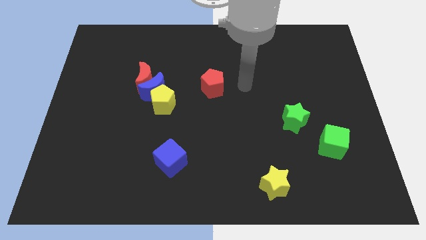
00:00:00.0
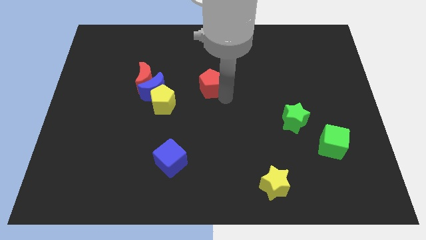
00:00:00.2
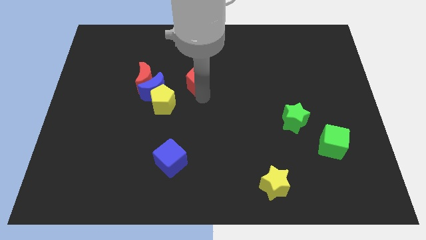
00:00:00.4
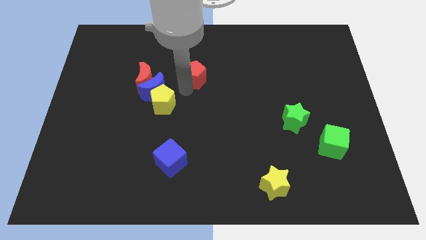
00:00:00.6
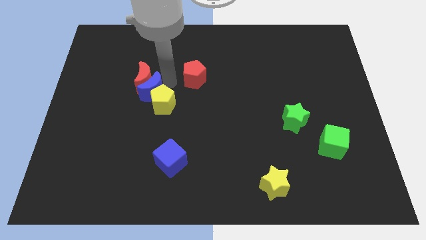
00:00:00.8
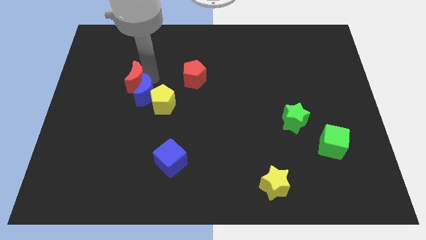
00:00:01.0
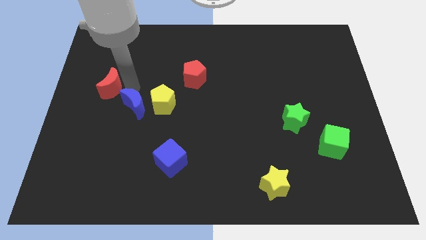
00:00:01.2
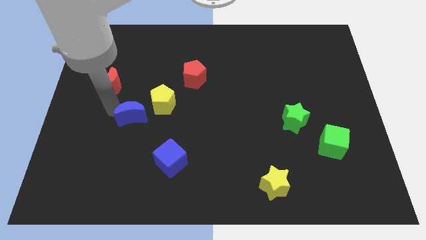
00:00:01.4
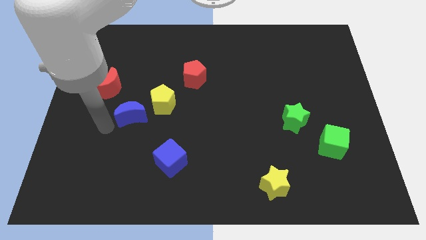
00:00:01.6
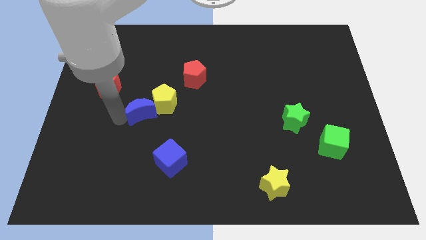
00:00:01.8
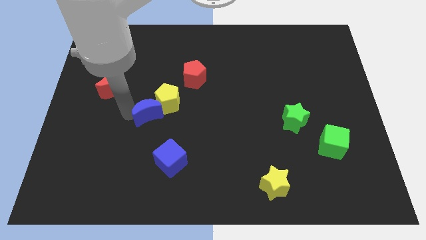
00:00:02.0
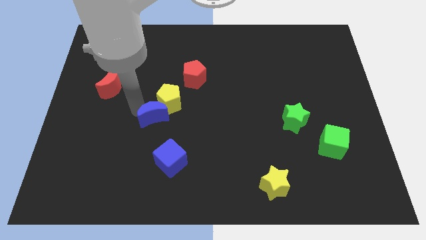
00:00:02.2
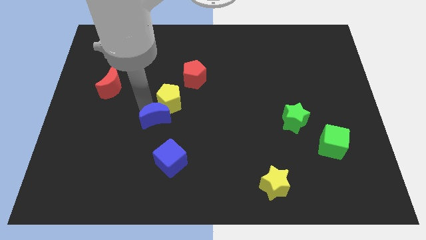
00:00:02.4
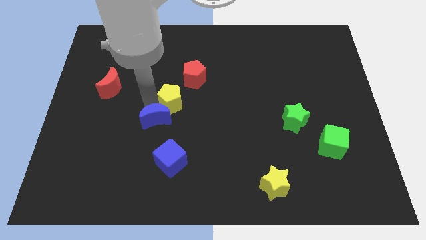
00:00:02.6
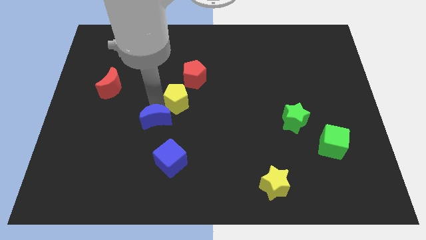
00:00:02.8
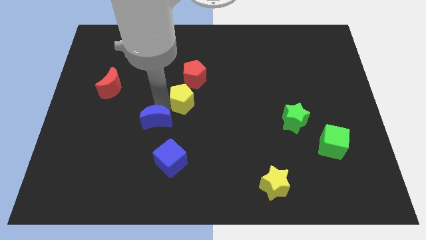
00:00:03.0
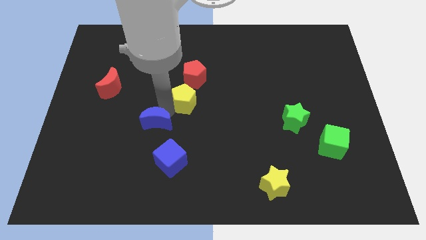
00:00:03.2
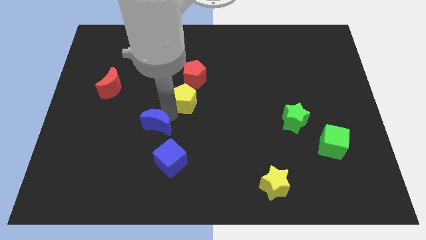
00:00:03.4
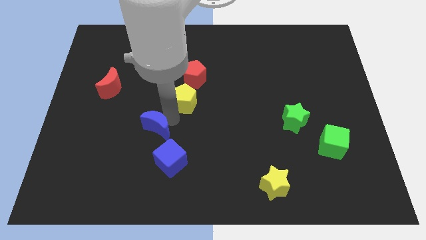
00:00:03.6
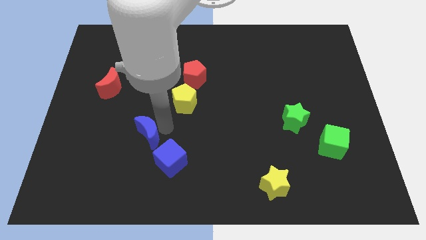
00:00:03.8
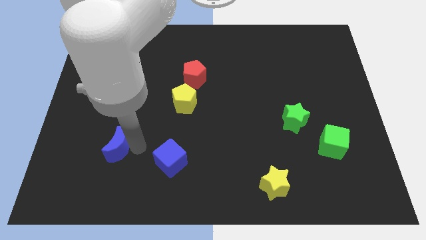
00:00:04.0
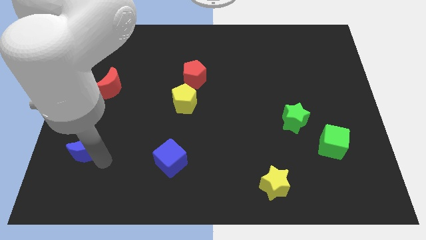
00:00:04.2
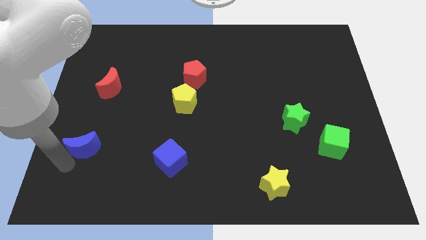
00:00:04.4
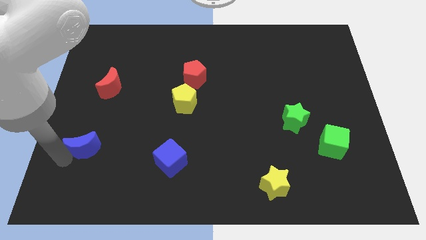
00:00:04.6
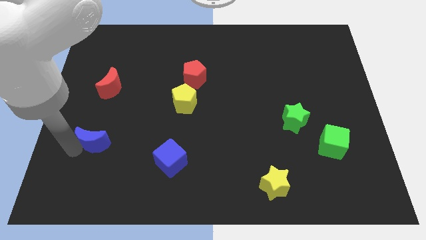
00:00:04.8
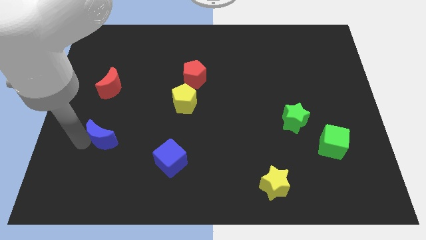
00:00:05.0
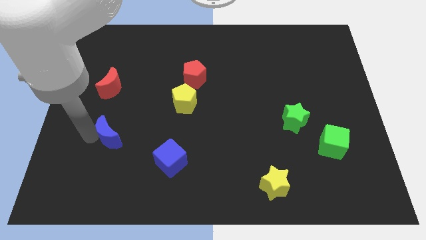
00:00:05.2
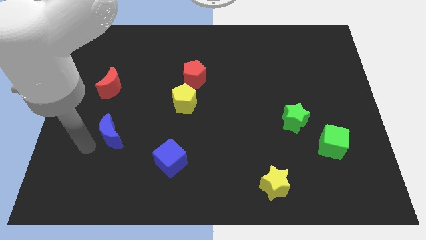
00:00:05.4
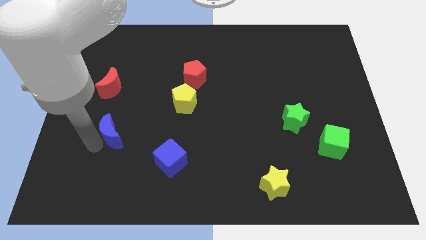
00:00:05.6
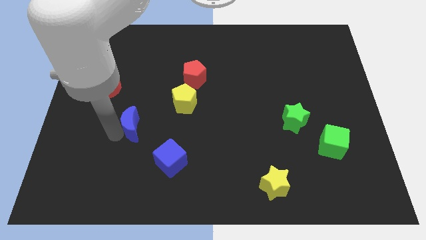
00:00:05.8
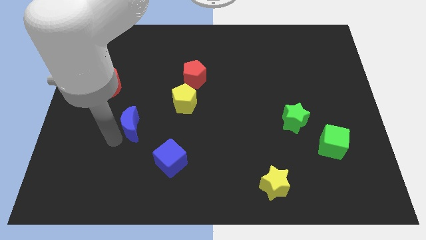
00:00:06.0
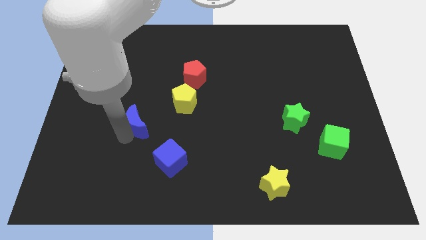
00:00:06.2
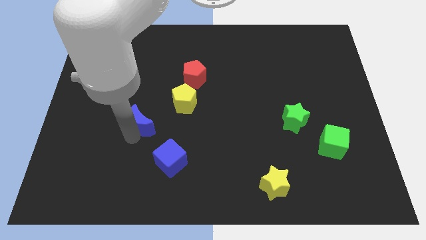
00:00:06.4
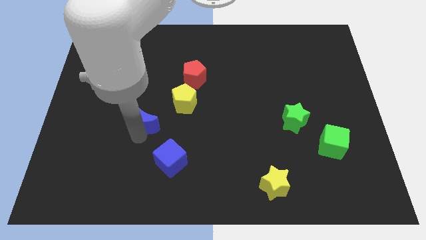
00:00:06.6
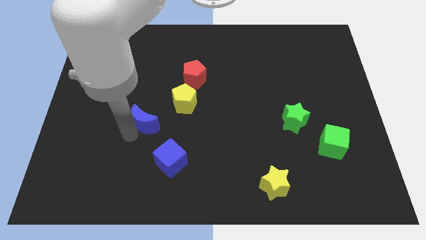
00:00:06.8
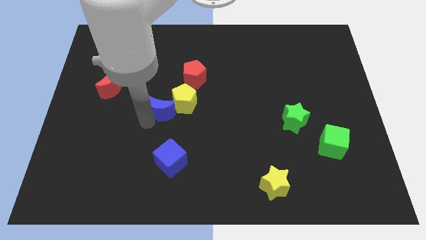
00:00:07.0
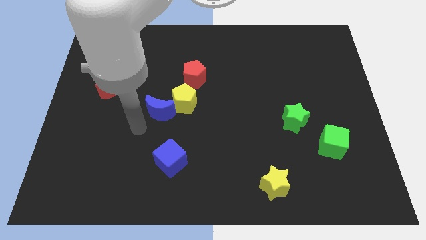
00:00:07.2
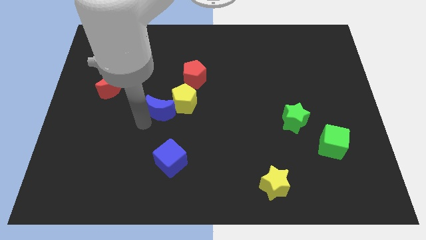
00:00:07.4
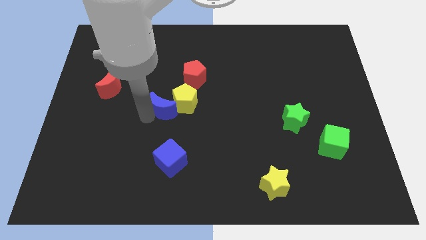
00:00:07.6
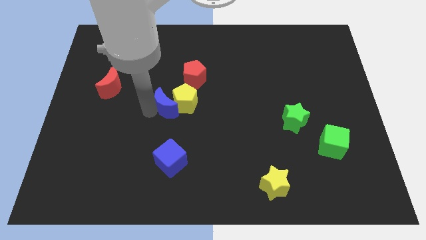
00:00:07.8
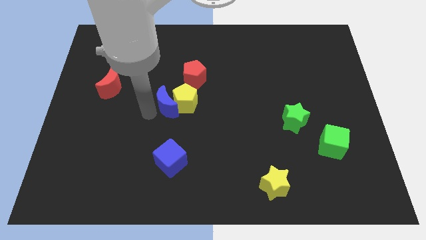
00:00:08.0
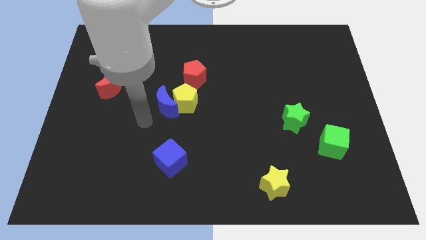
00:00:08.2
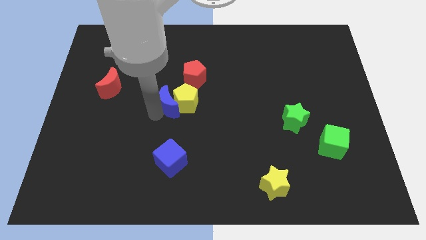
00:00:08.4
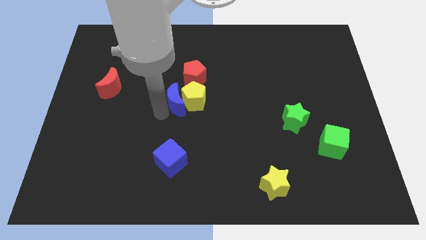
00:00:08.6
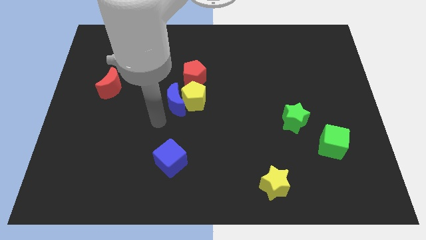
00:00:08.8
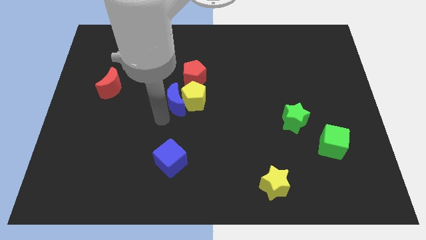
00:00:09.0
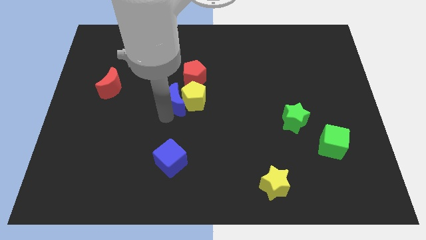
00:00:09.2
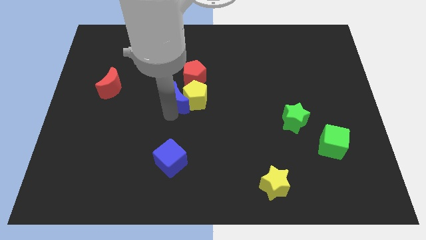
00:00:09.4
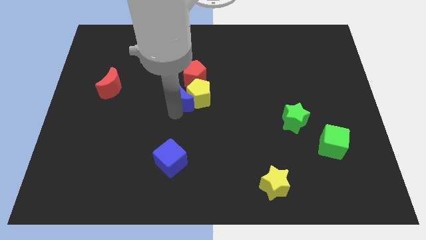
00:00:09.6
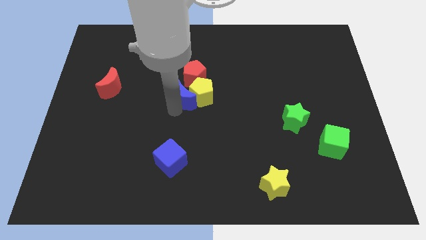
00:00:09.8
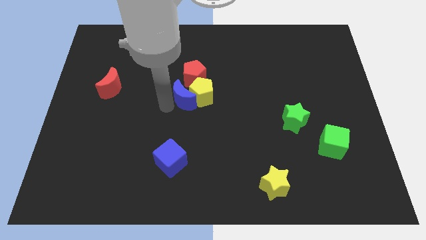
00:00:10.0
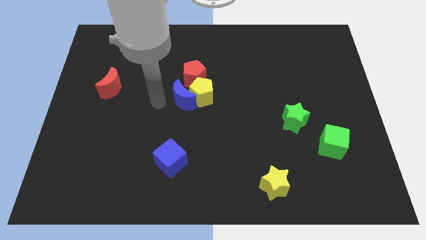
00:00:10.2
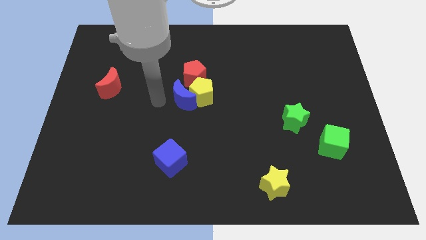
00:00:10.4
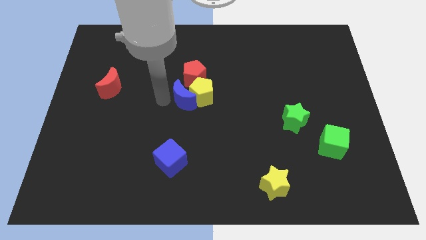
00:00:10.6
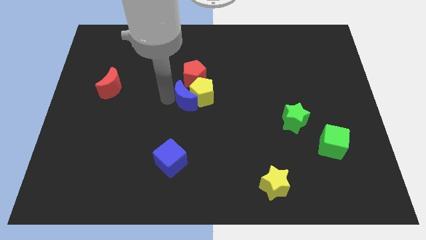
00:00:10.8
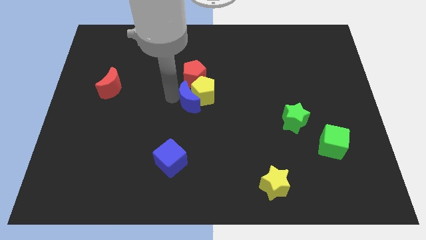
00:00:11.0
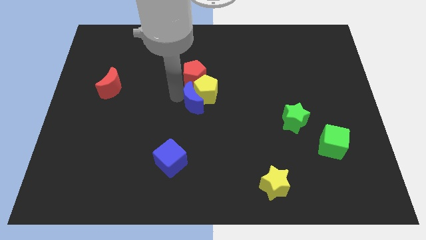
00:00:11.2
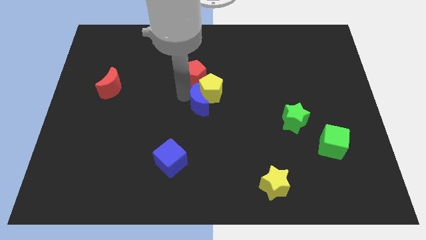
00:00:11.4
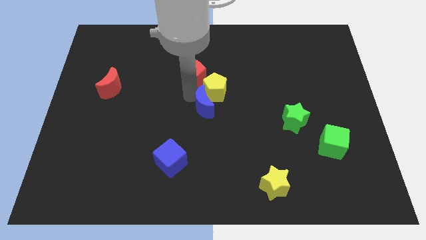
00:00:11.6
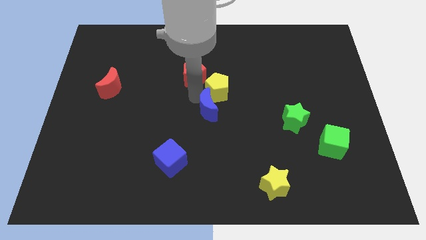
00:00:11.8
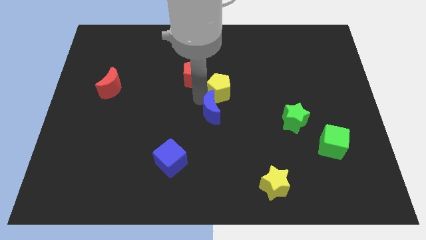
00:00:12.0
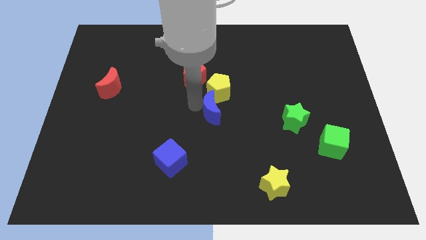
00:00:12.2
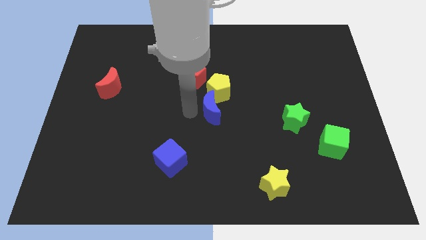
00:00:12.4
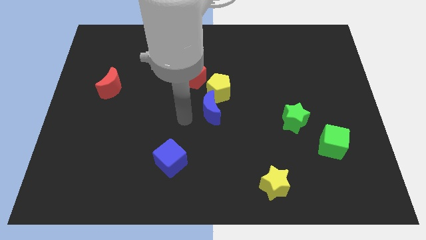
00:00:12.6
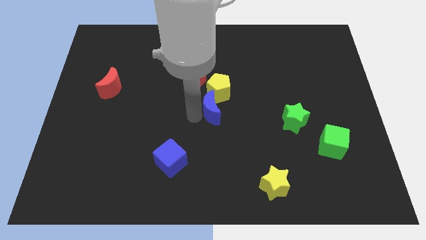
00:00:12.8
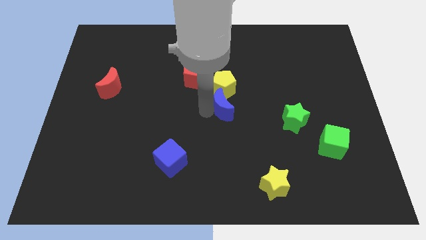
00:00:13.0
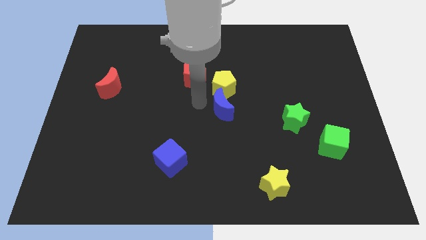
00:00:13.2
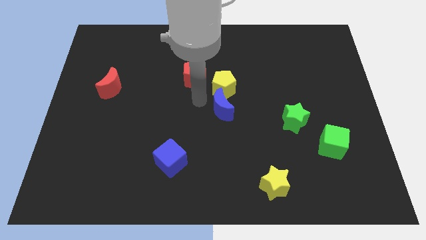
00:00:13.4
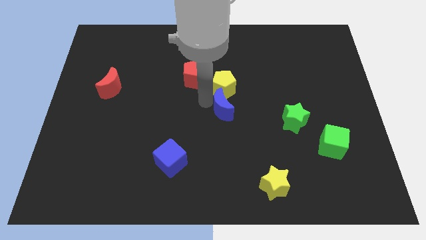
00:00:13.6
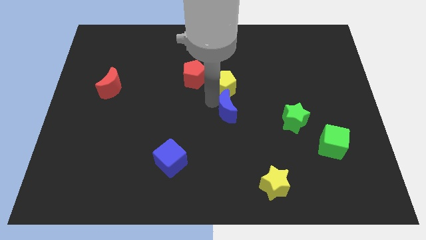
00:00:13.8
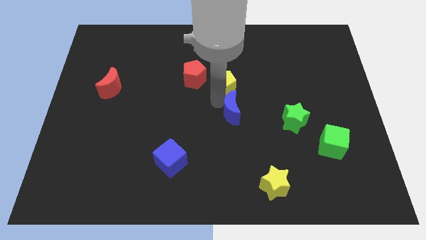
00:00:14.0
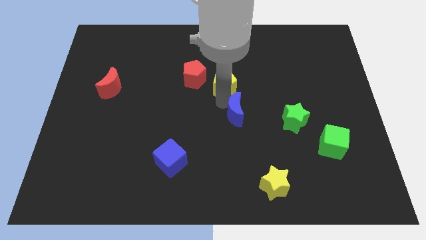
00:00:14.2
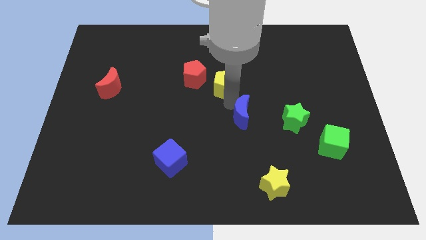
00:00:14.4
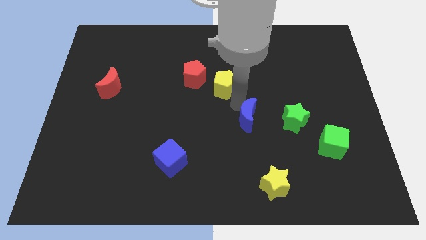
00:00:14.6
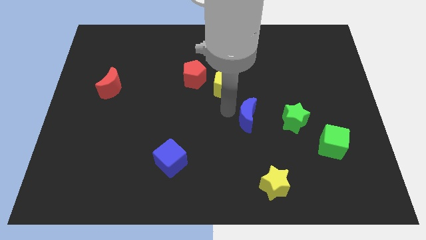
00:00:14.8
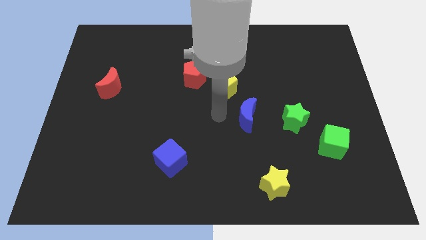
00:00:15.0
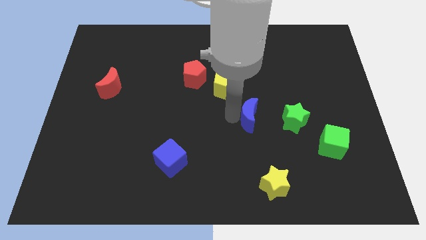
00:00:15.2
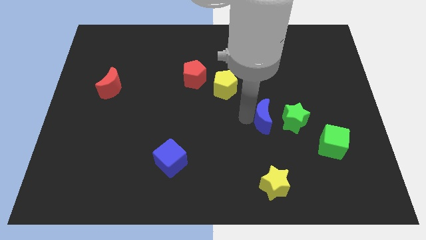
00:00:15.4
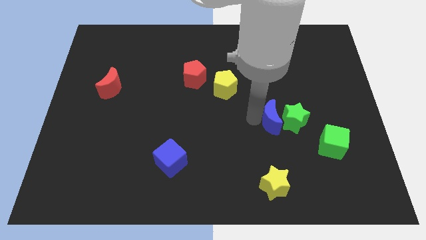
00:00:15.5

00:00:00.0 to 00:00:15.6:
push the blue moon towards the green star
